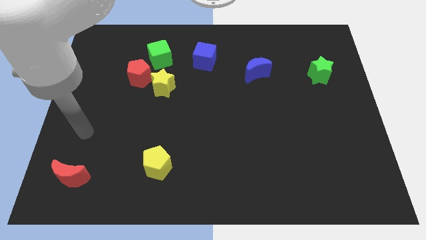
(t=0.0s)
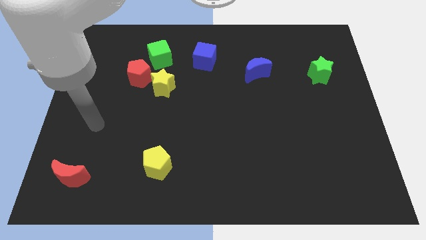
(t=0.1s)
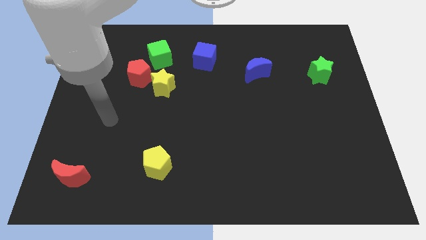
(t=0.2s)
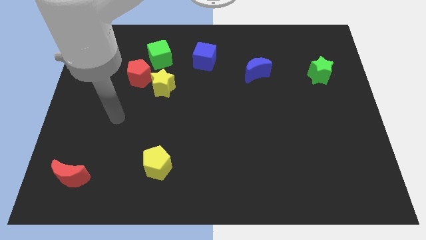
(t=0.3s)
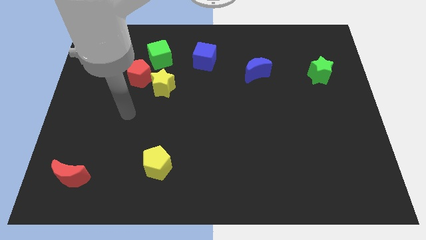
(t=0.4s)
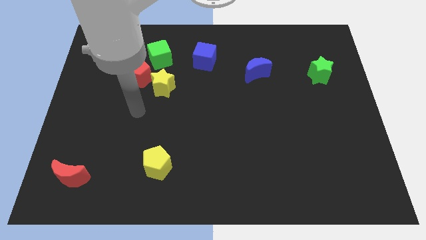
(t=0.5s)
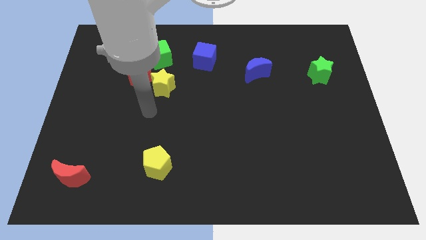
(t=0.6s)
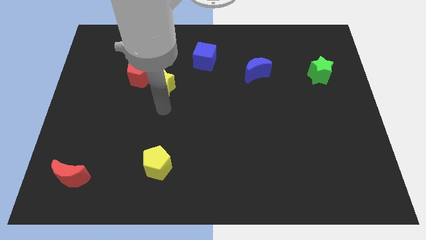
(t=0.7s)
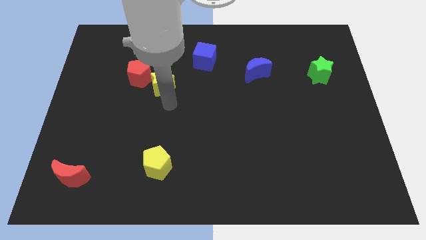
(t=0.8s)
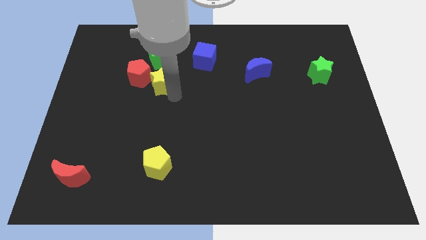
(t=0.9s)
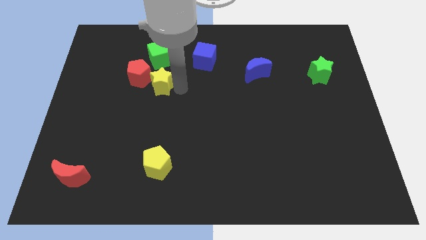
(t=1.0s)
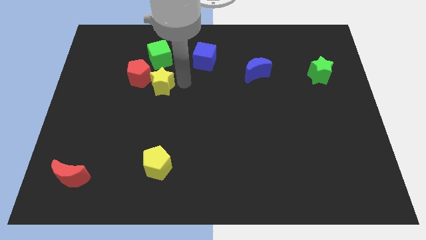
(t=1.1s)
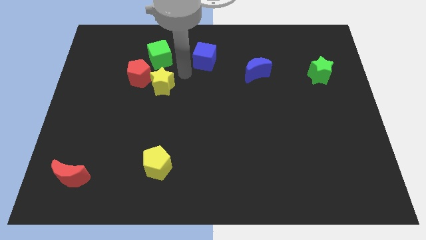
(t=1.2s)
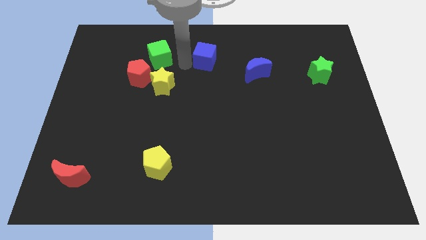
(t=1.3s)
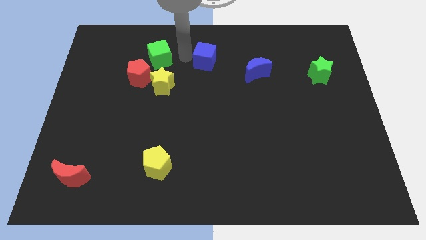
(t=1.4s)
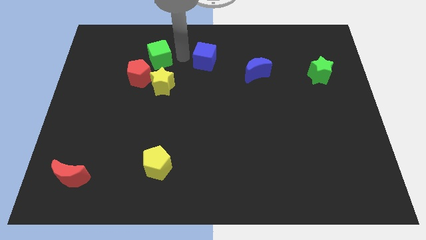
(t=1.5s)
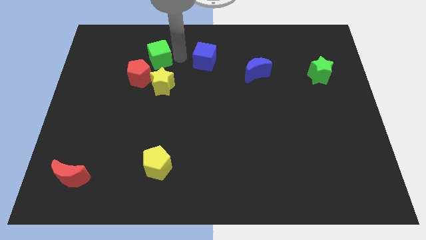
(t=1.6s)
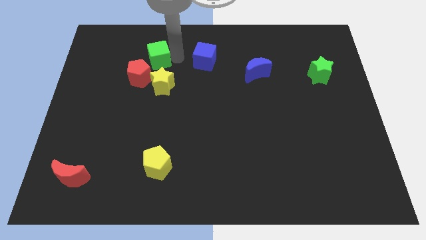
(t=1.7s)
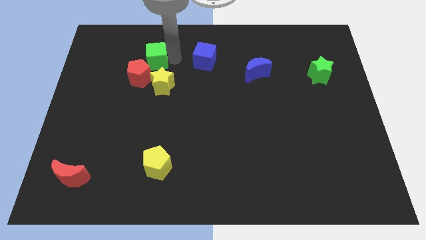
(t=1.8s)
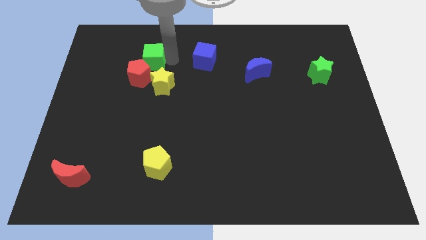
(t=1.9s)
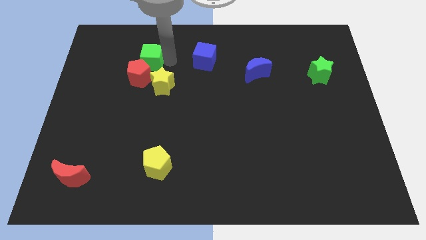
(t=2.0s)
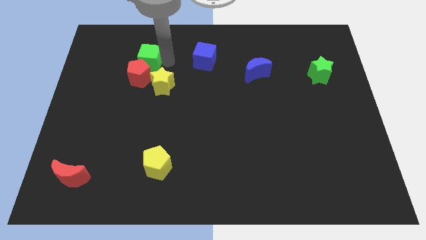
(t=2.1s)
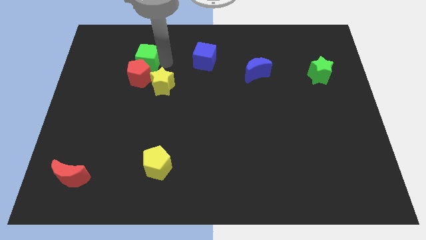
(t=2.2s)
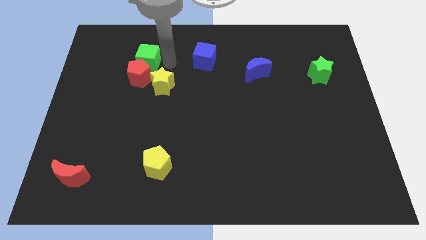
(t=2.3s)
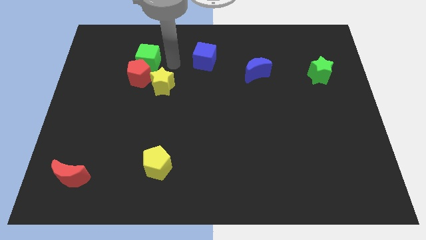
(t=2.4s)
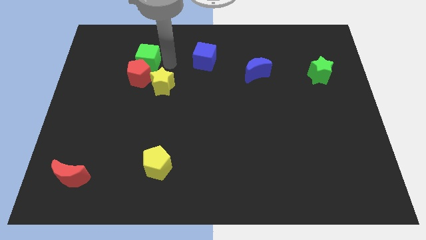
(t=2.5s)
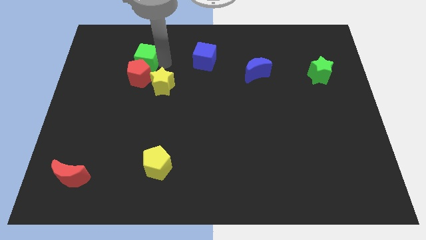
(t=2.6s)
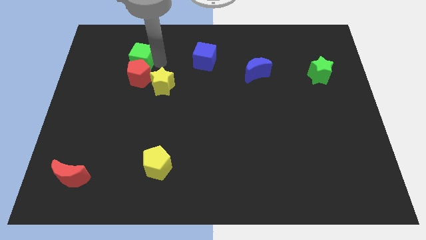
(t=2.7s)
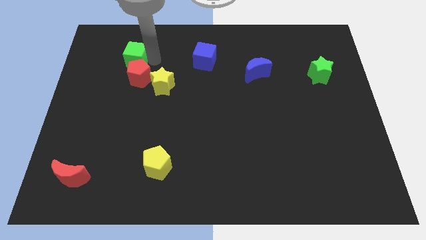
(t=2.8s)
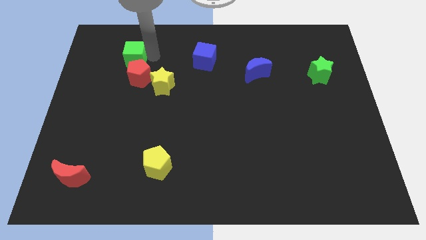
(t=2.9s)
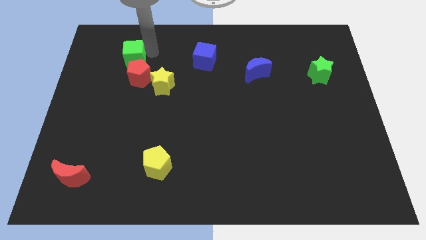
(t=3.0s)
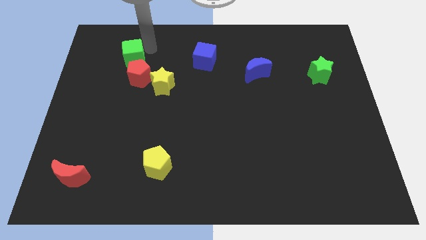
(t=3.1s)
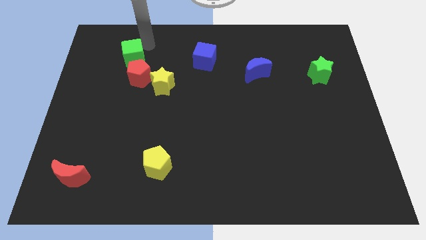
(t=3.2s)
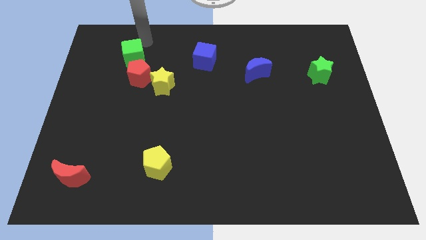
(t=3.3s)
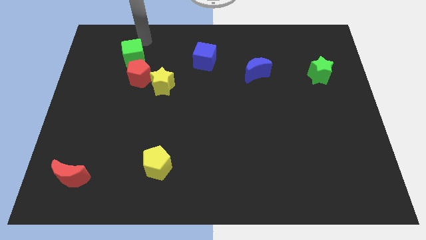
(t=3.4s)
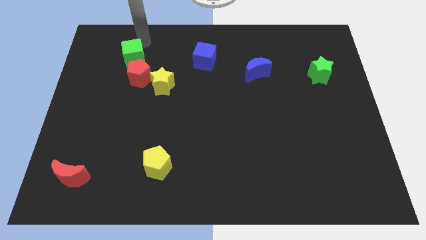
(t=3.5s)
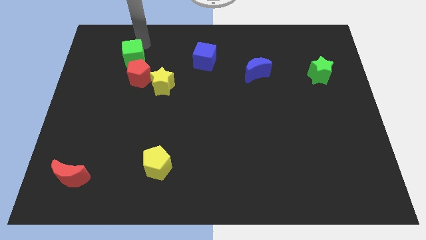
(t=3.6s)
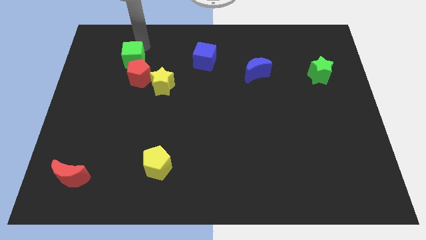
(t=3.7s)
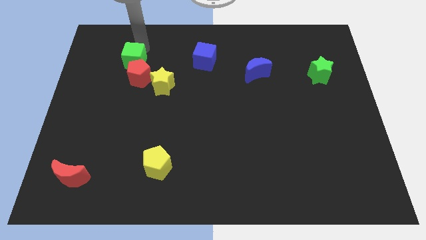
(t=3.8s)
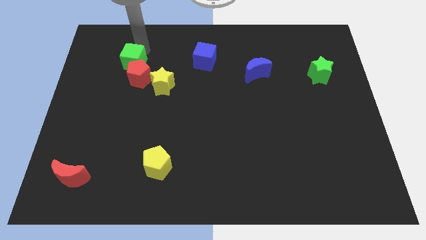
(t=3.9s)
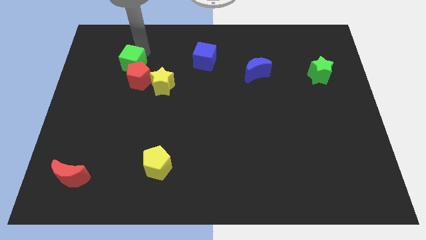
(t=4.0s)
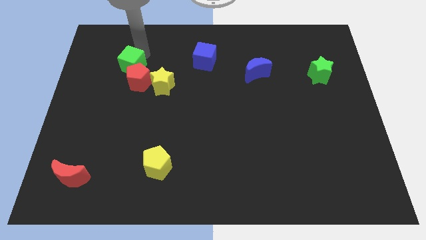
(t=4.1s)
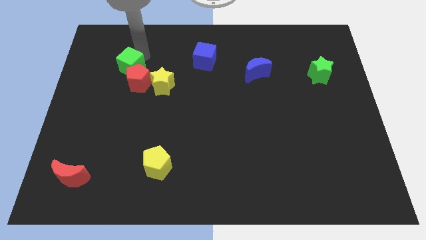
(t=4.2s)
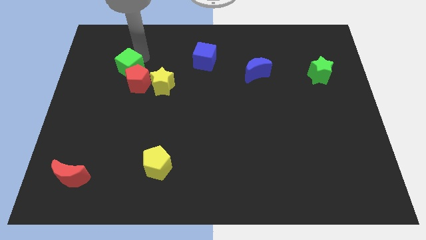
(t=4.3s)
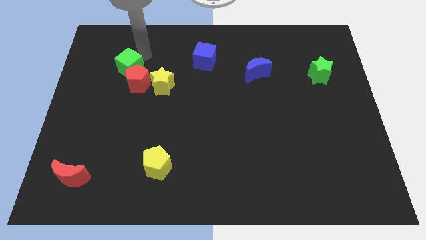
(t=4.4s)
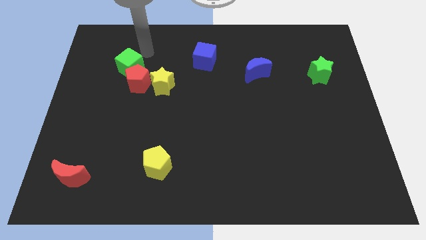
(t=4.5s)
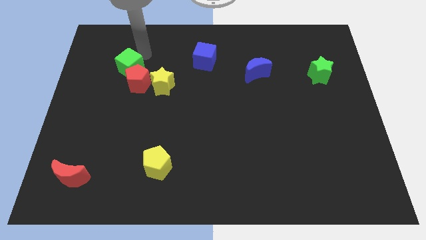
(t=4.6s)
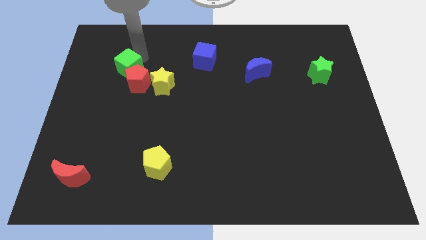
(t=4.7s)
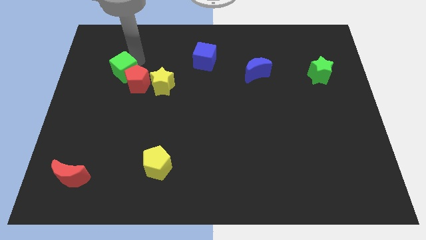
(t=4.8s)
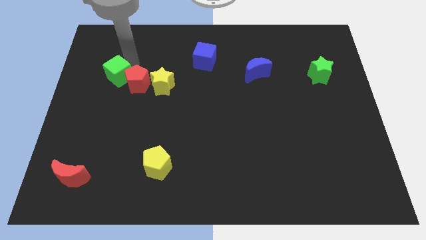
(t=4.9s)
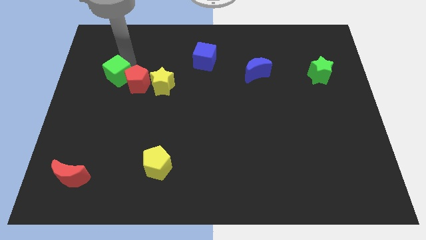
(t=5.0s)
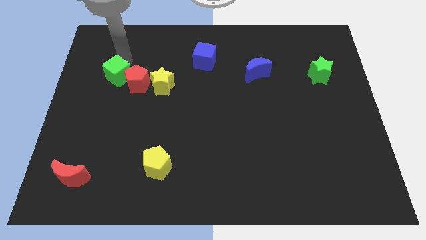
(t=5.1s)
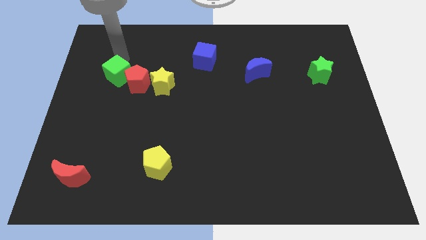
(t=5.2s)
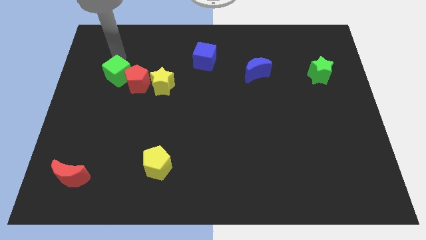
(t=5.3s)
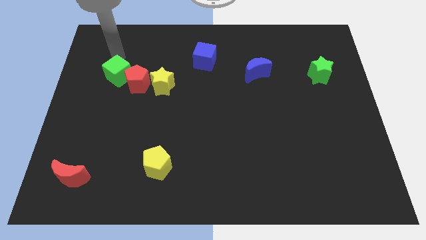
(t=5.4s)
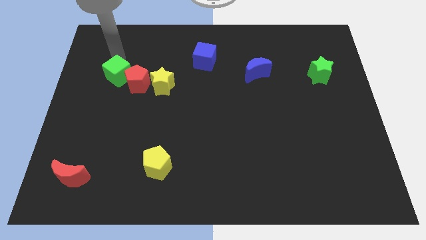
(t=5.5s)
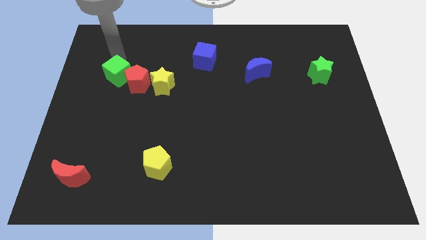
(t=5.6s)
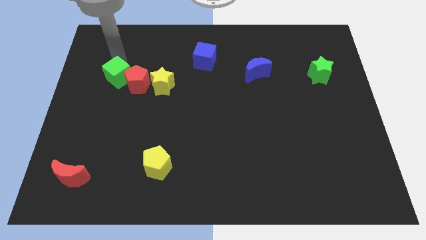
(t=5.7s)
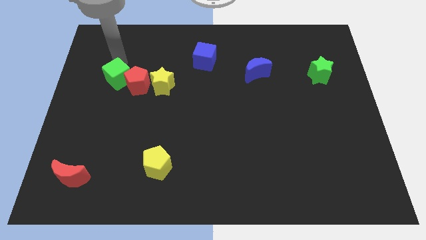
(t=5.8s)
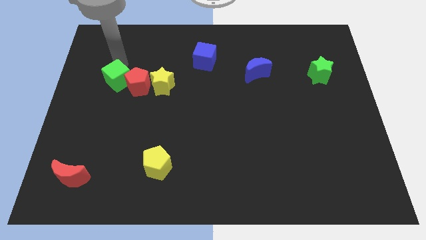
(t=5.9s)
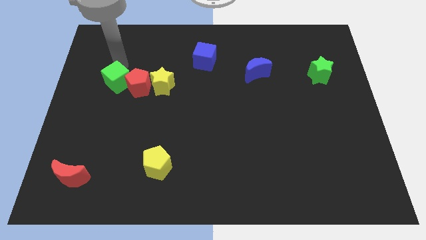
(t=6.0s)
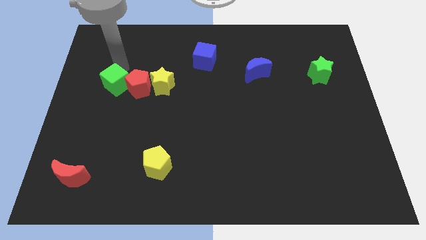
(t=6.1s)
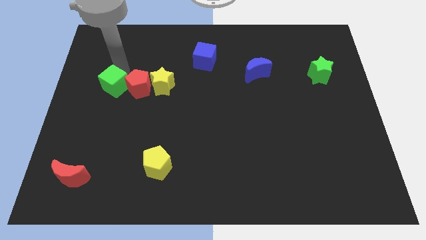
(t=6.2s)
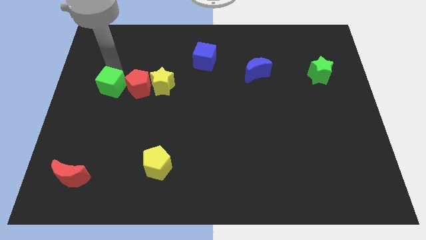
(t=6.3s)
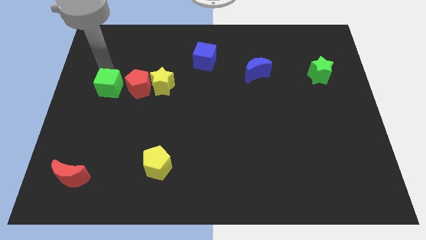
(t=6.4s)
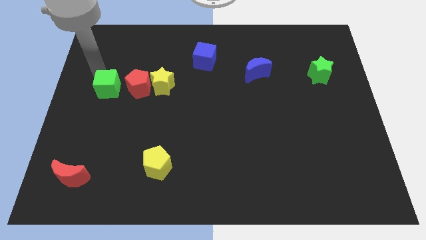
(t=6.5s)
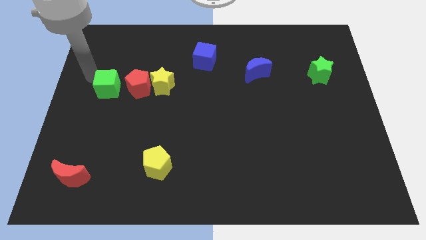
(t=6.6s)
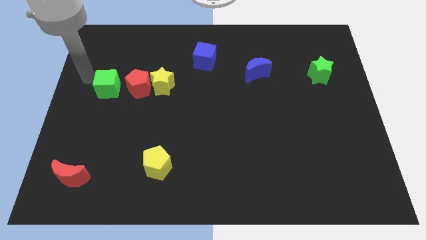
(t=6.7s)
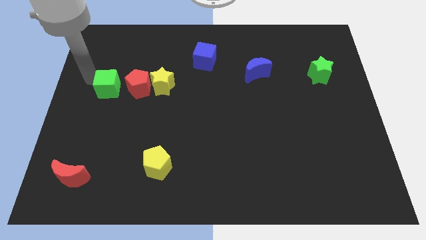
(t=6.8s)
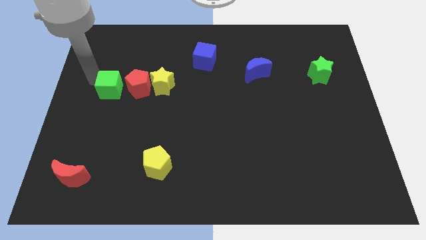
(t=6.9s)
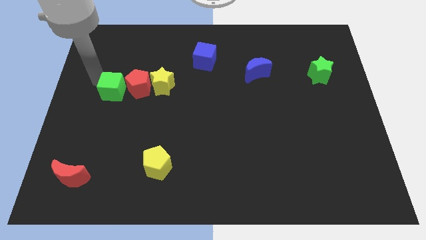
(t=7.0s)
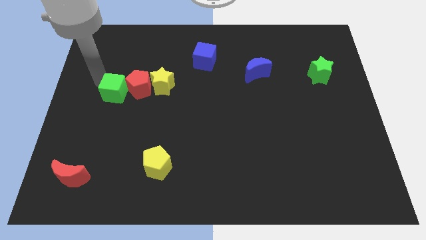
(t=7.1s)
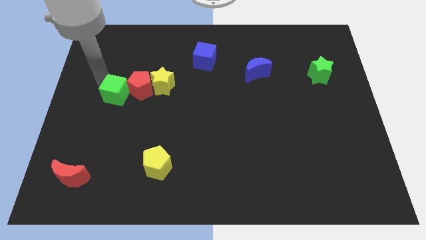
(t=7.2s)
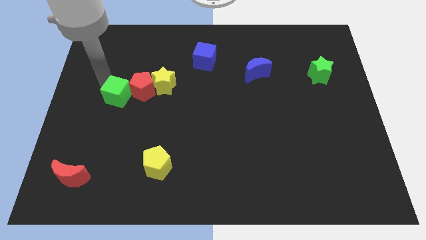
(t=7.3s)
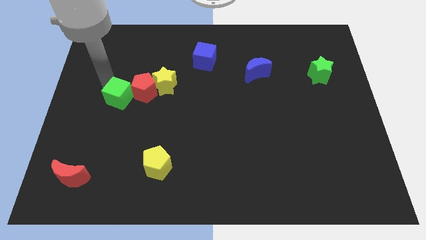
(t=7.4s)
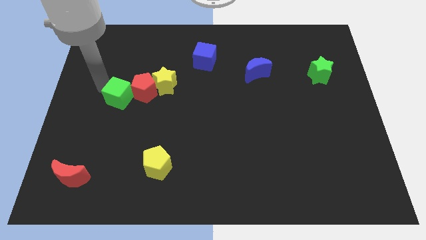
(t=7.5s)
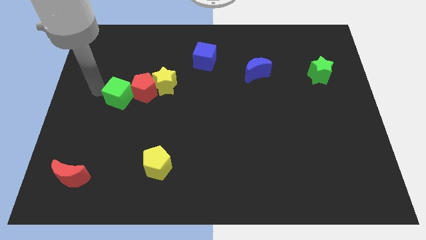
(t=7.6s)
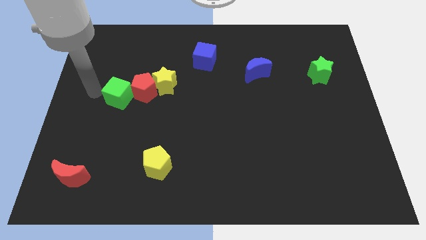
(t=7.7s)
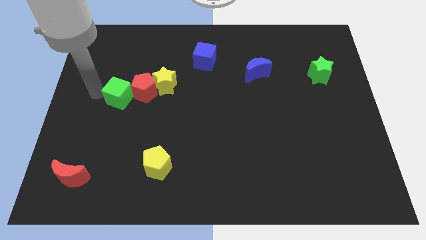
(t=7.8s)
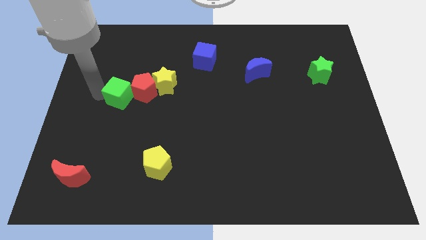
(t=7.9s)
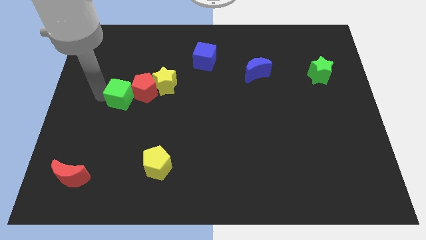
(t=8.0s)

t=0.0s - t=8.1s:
move the green cube to the bottom left side of the yellow star
